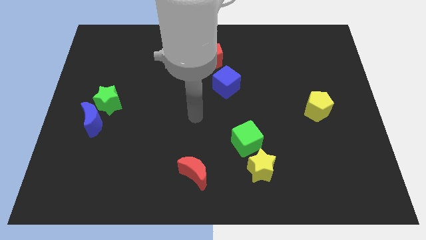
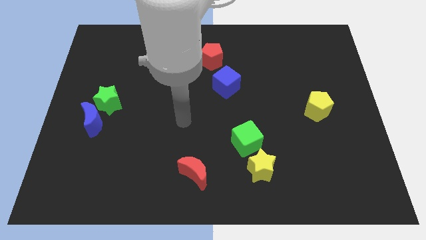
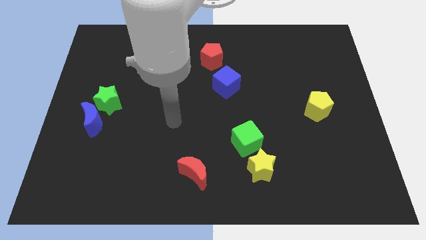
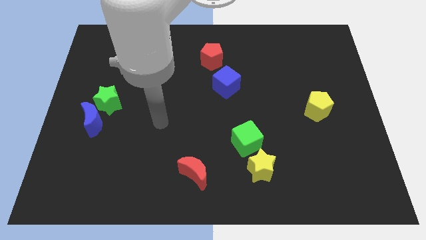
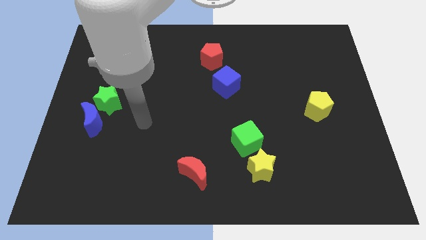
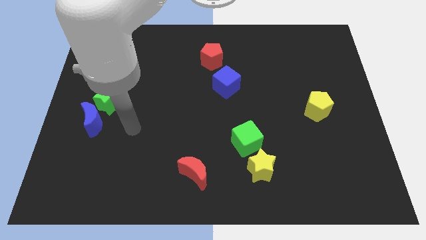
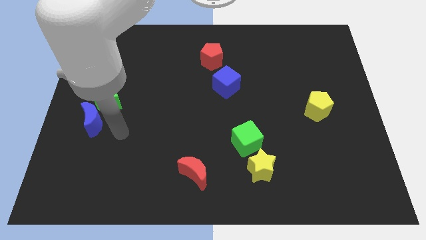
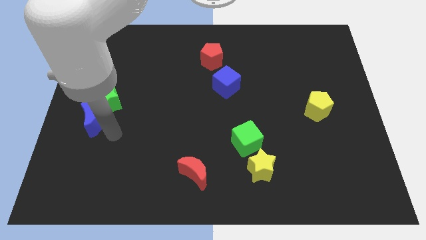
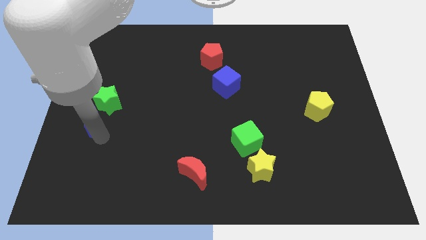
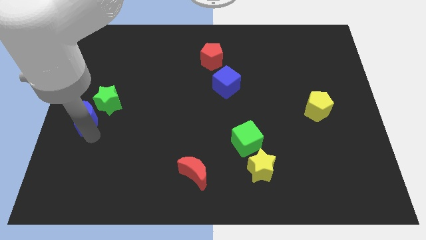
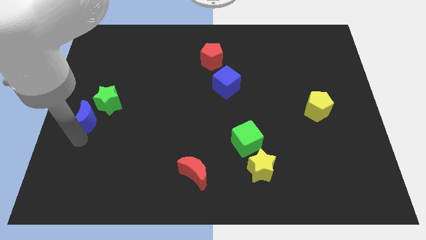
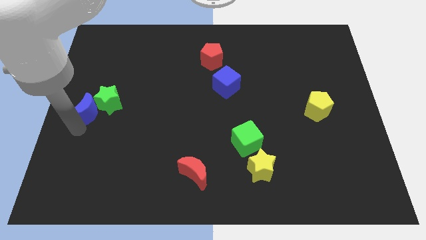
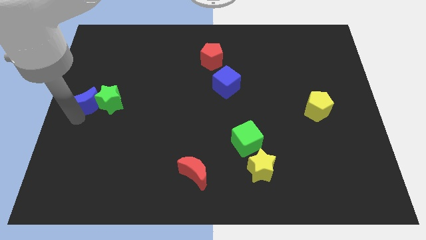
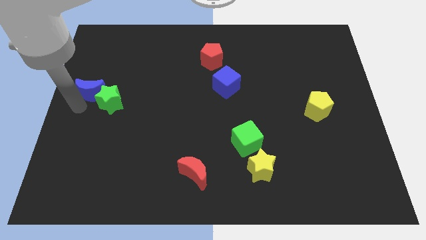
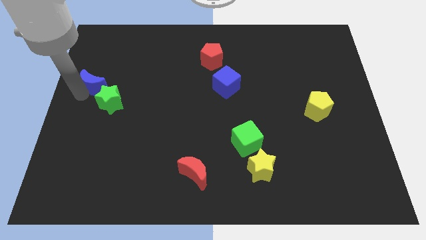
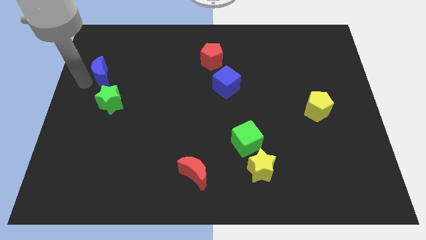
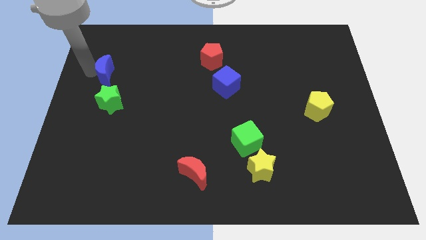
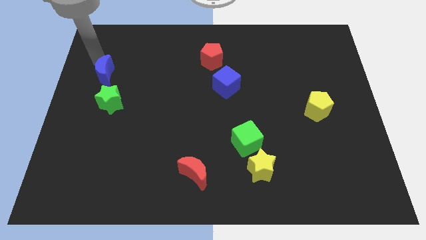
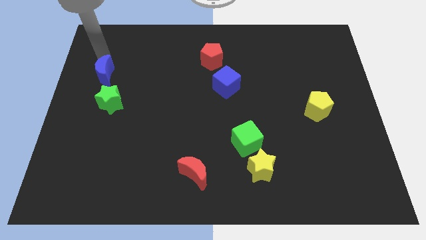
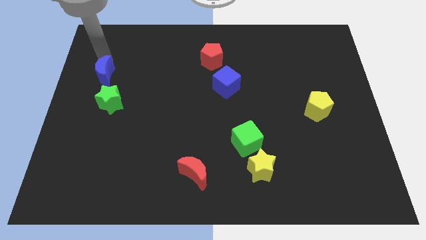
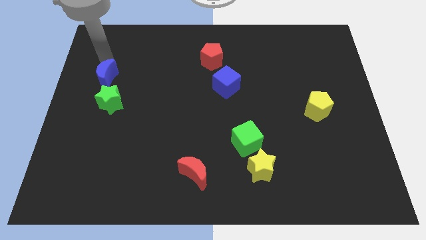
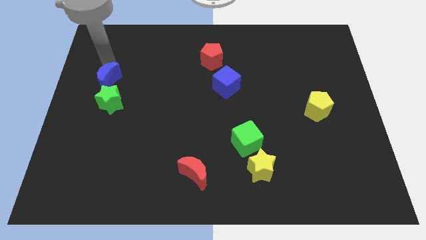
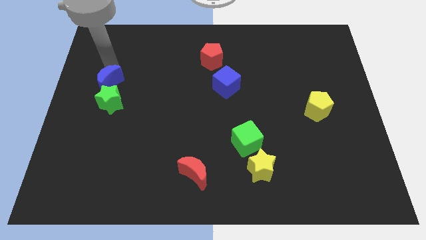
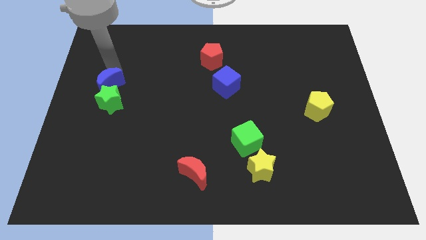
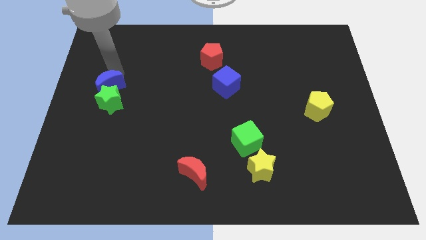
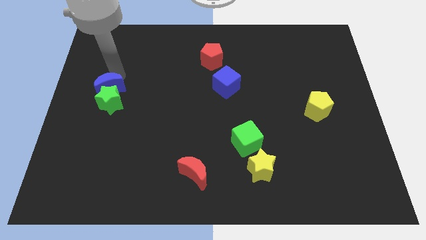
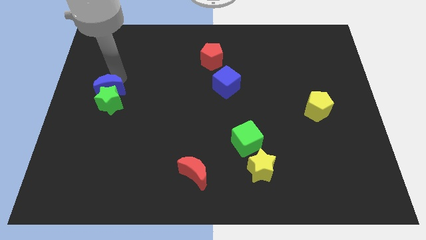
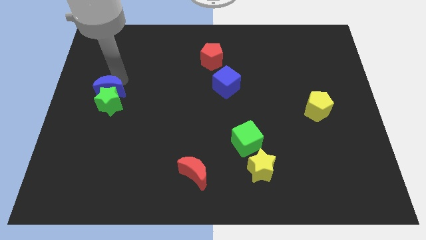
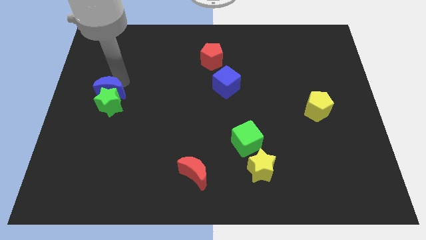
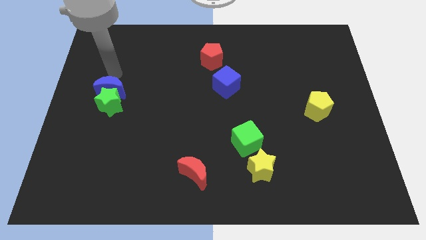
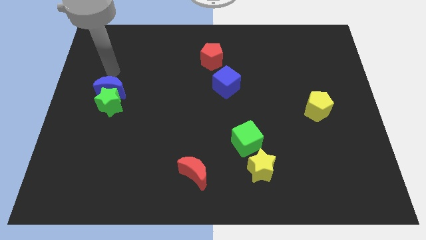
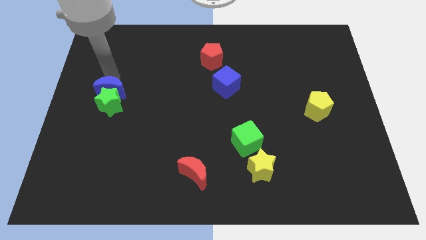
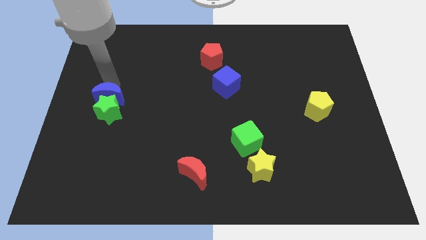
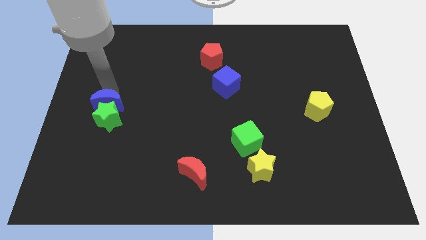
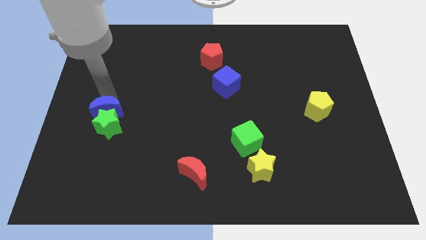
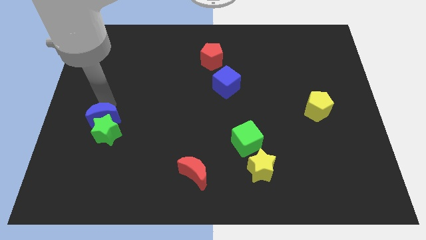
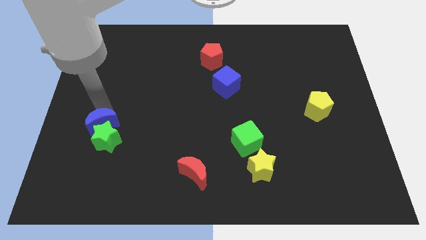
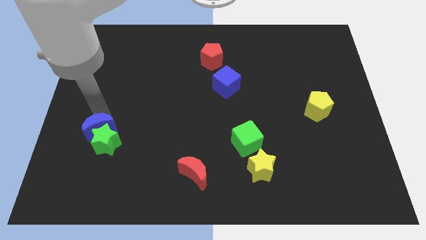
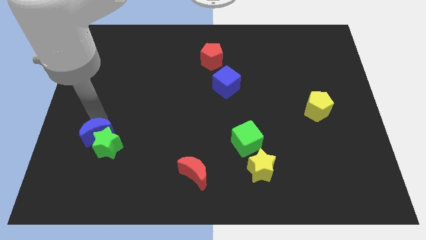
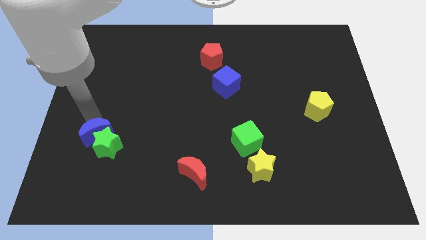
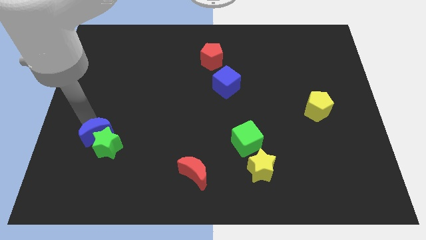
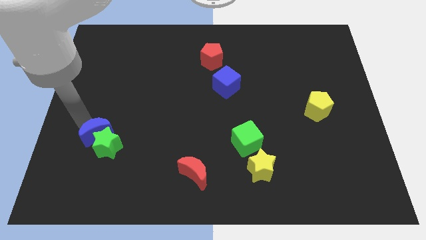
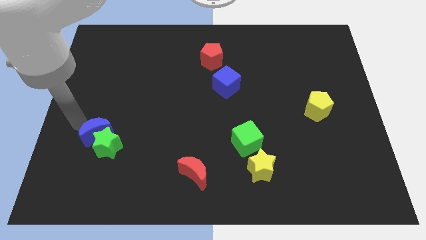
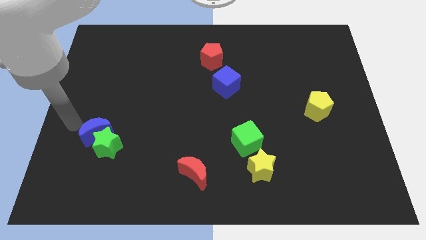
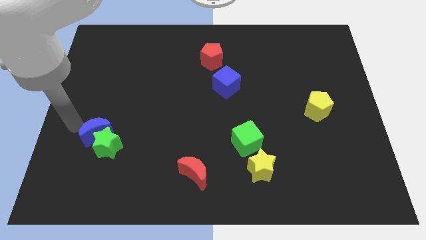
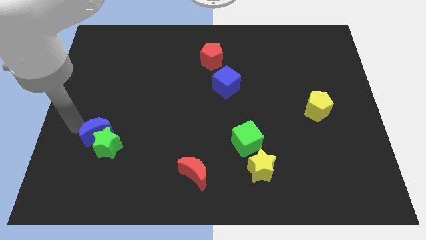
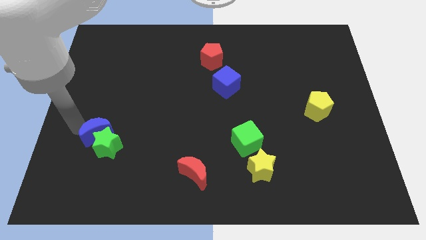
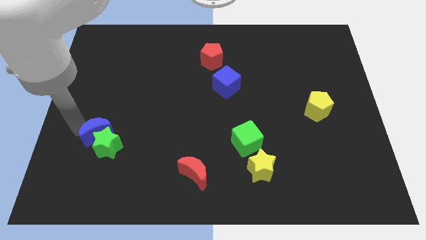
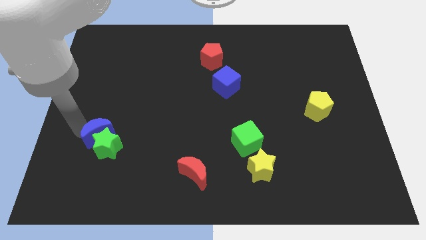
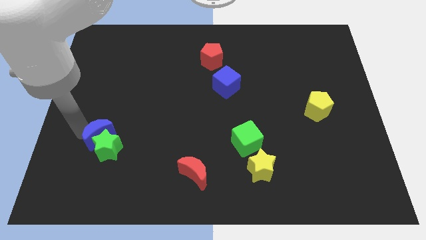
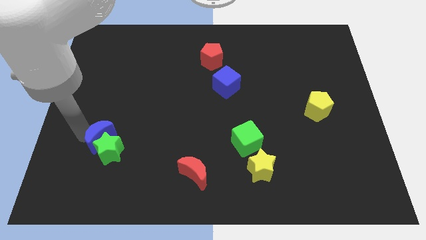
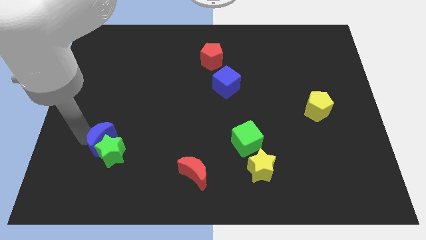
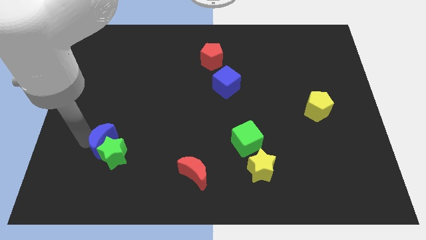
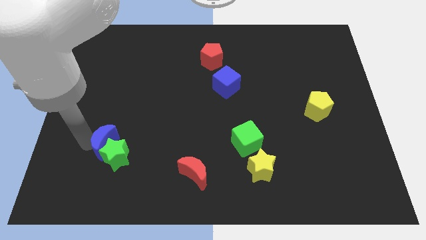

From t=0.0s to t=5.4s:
push the blue moon down and then right a bit

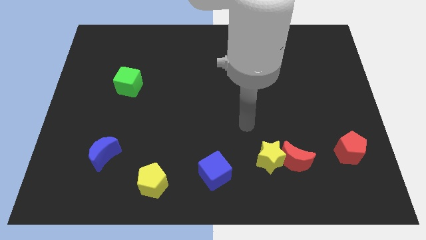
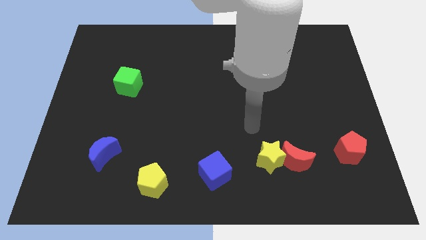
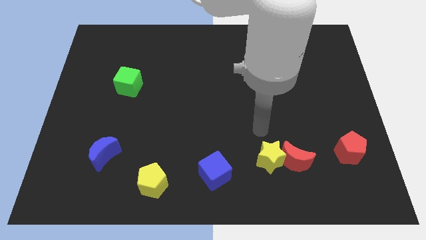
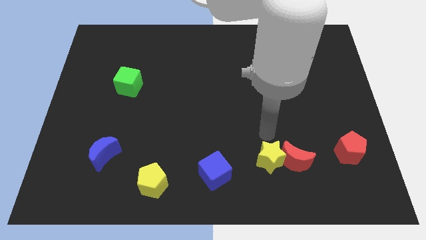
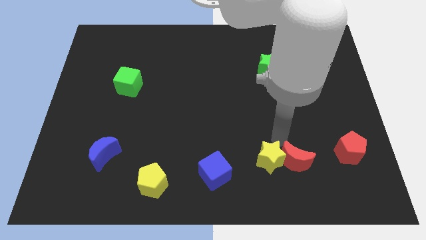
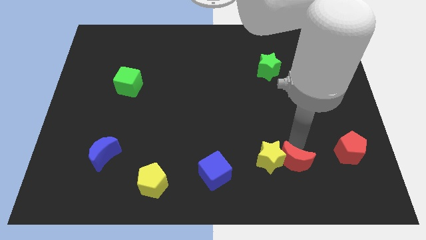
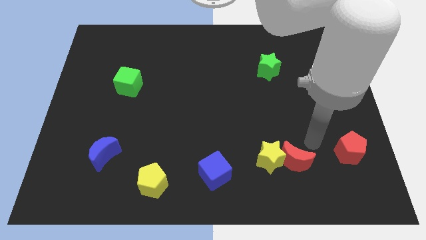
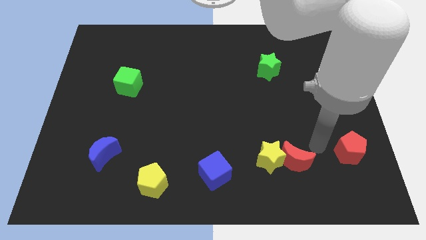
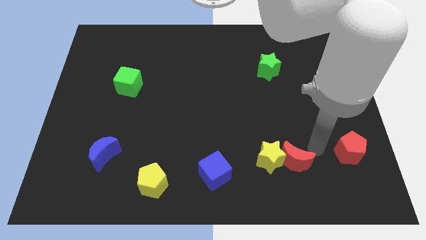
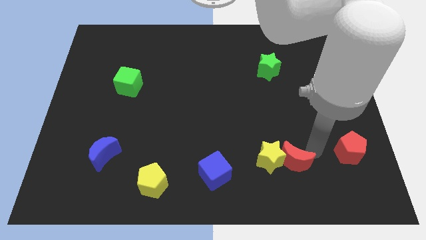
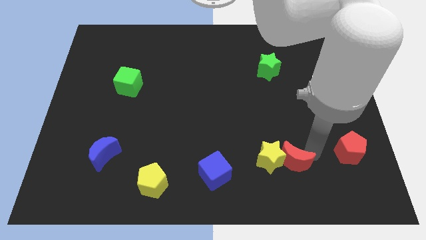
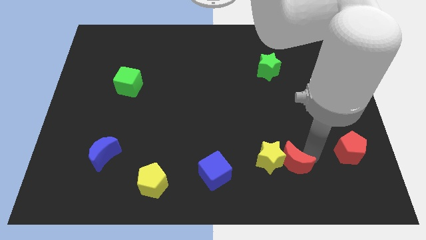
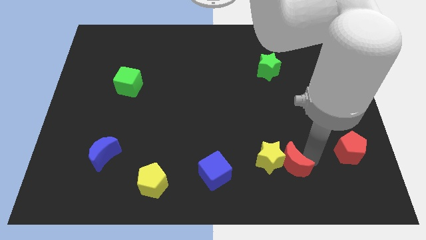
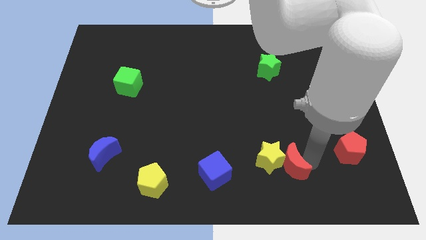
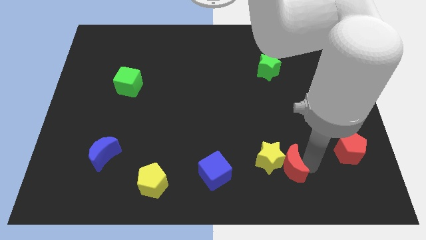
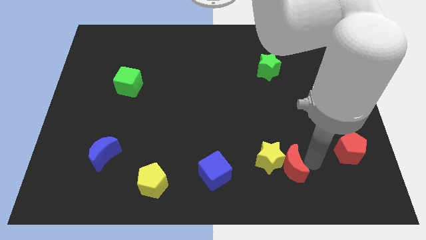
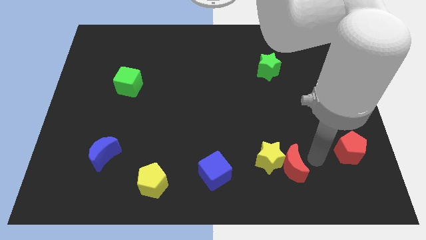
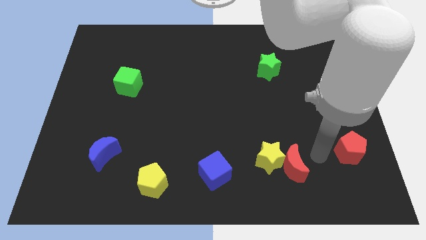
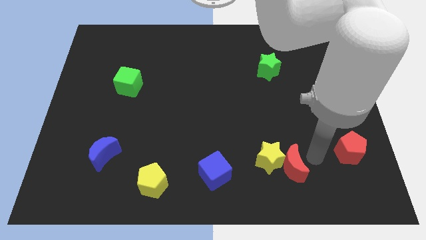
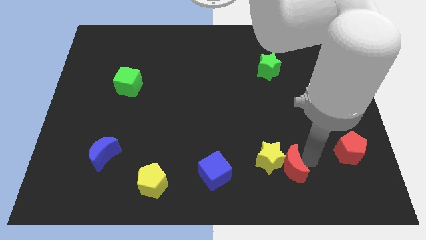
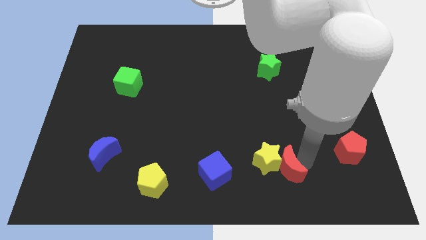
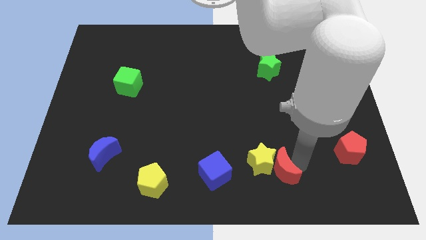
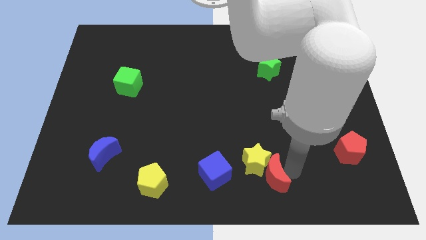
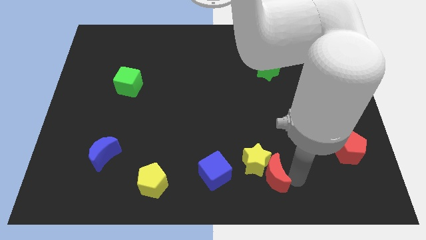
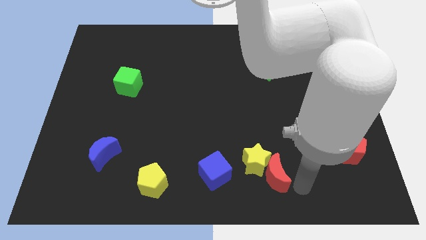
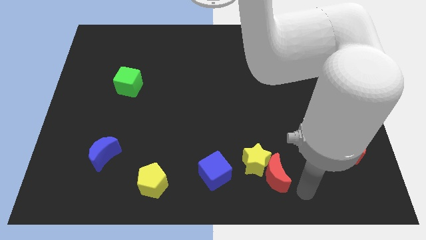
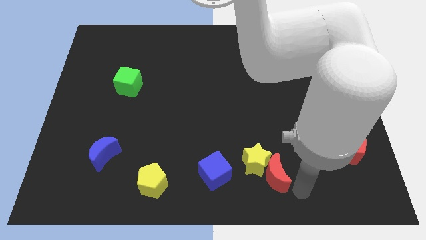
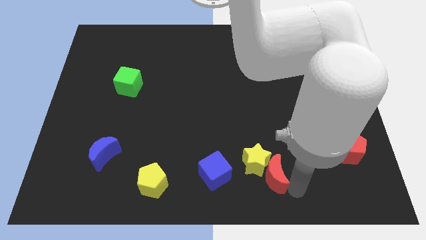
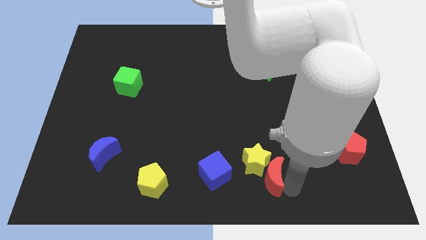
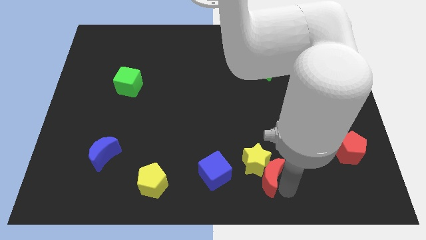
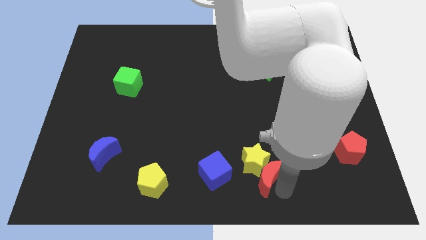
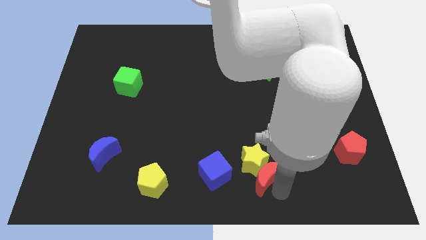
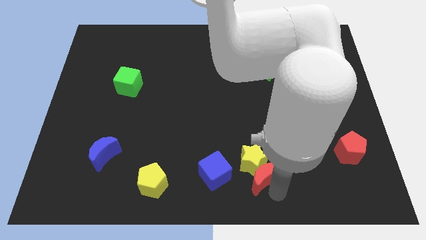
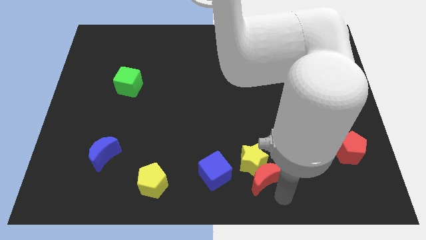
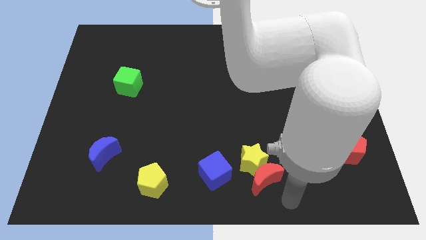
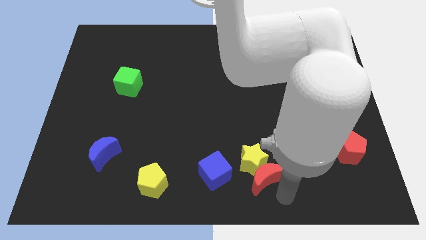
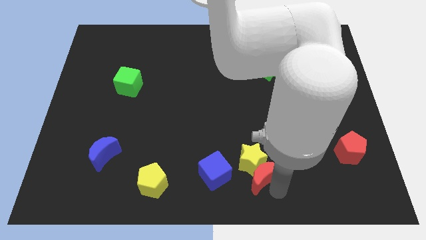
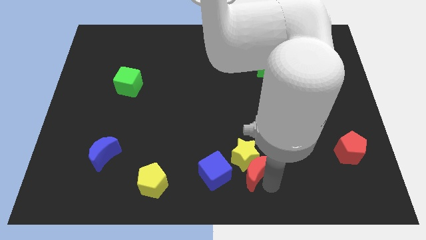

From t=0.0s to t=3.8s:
slide the red moon a little bit to the left
